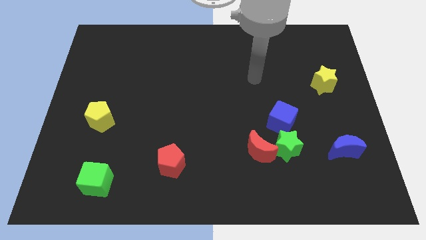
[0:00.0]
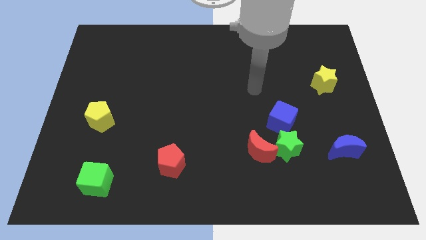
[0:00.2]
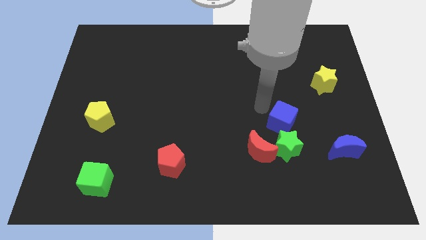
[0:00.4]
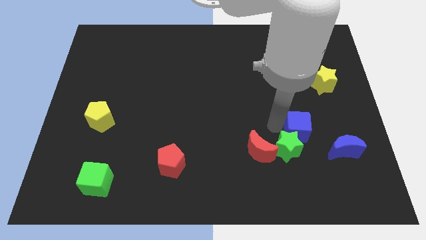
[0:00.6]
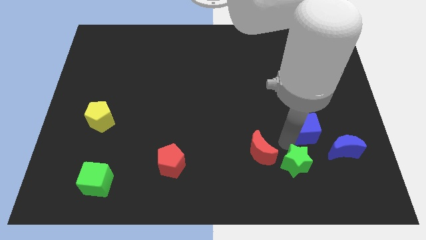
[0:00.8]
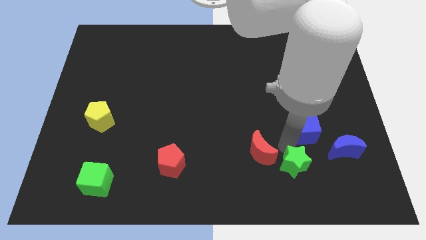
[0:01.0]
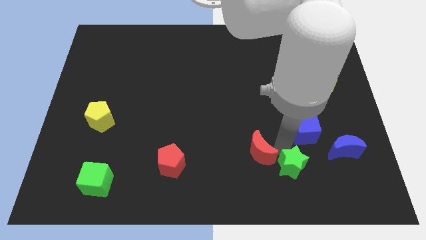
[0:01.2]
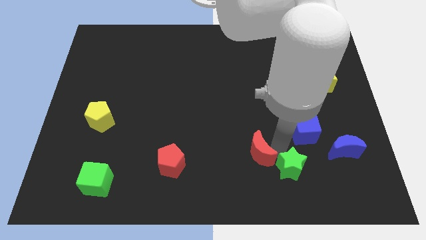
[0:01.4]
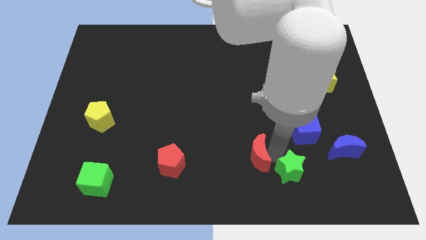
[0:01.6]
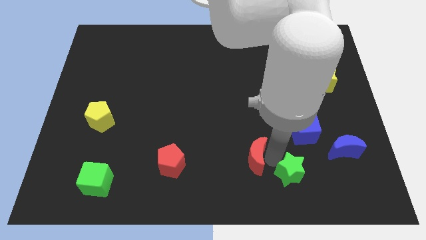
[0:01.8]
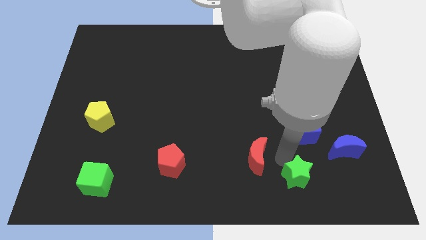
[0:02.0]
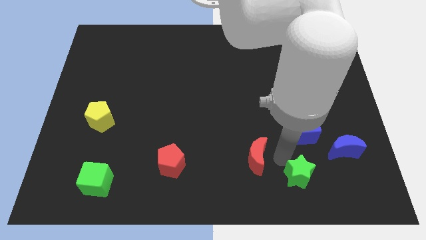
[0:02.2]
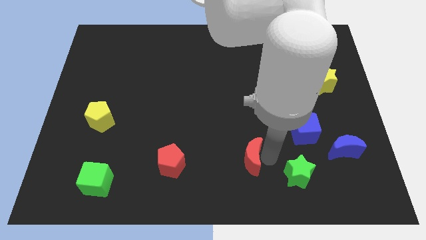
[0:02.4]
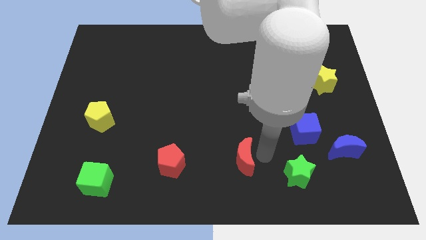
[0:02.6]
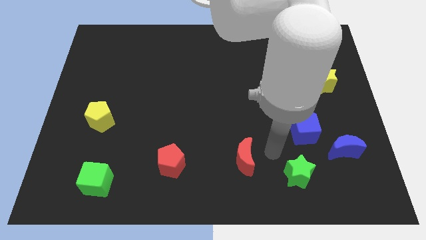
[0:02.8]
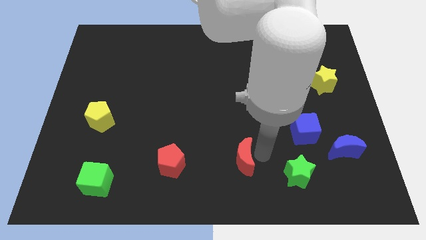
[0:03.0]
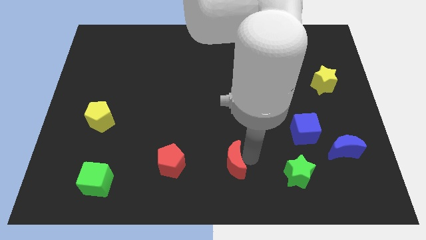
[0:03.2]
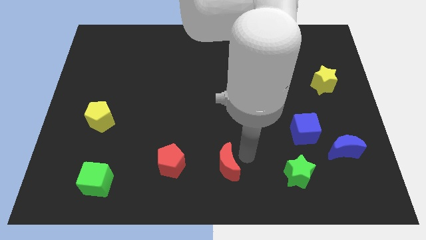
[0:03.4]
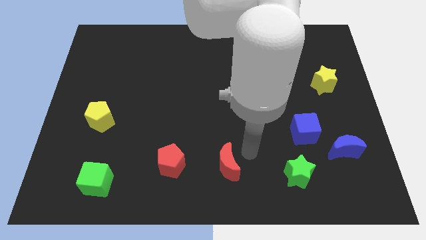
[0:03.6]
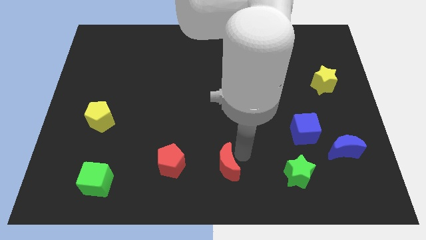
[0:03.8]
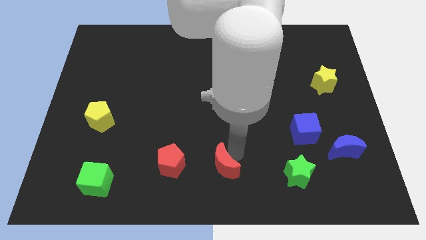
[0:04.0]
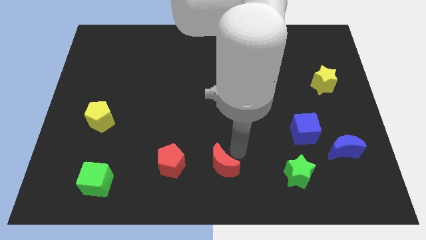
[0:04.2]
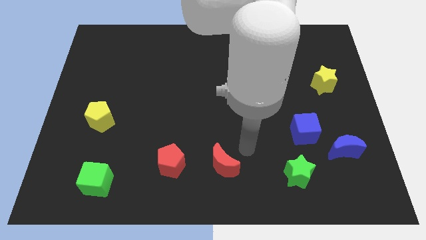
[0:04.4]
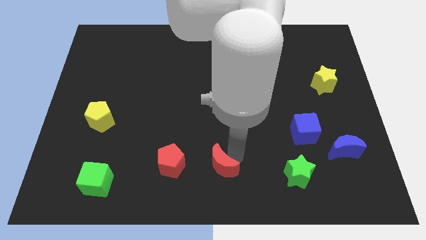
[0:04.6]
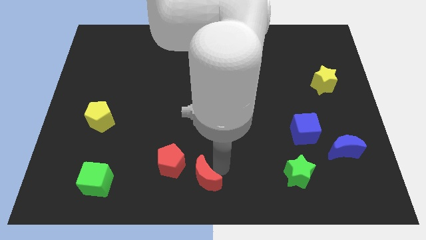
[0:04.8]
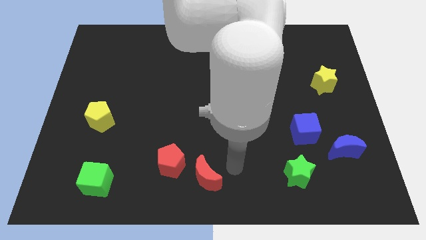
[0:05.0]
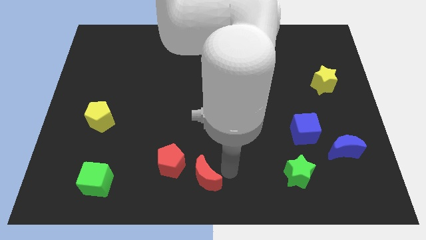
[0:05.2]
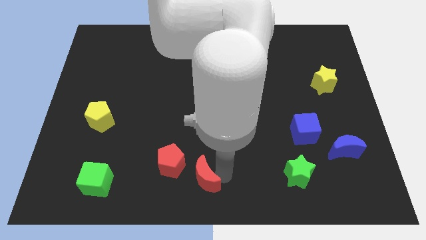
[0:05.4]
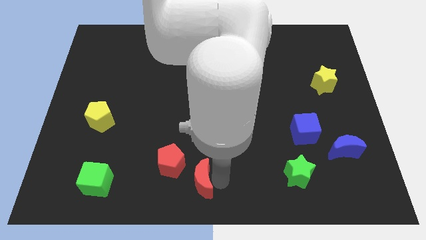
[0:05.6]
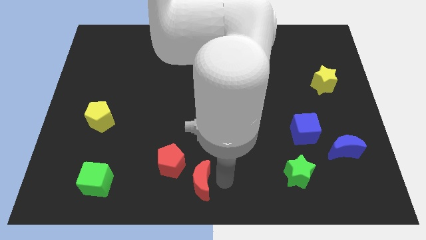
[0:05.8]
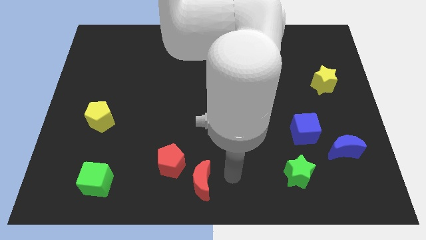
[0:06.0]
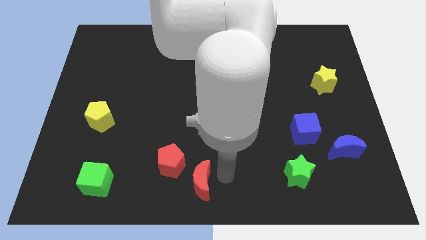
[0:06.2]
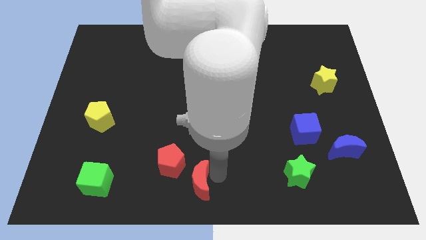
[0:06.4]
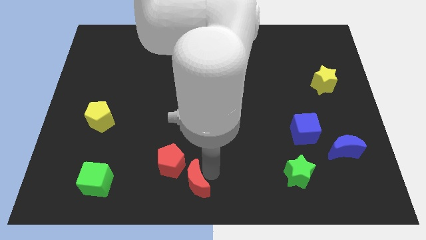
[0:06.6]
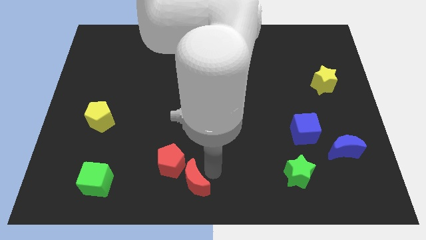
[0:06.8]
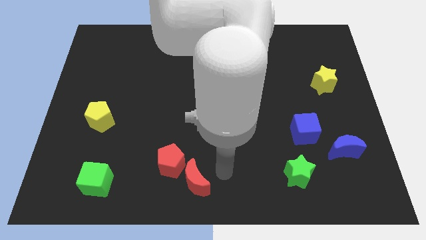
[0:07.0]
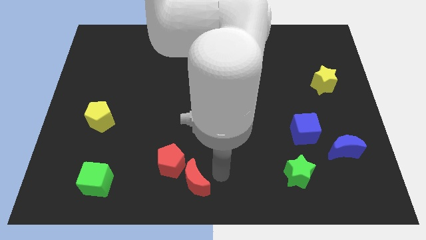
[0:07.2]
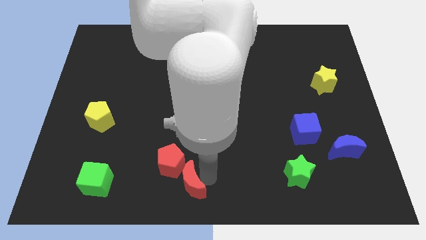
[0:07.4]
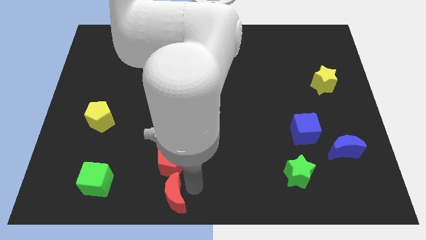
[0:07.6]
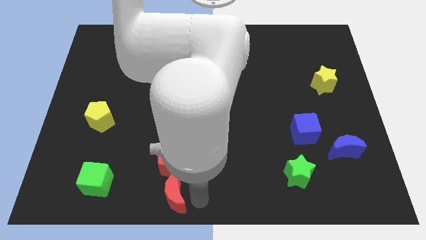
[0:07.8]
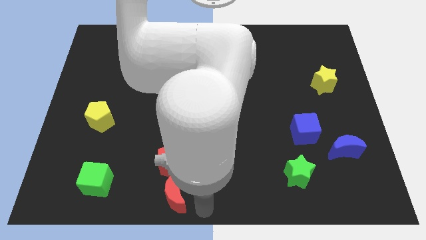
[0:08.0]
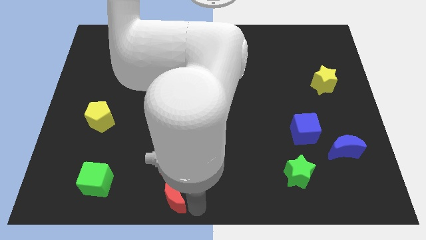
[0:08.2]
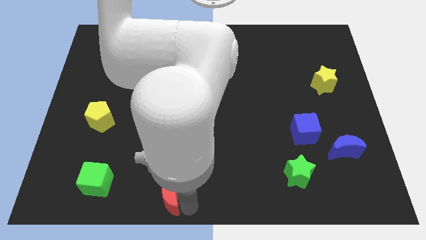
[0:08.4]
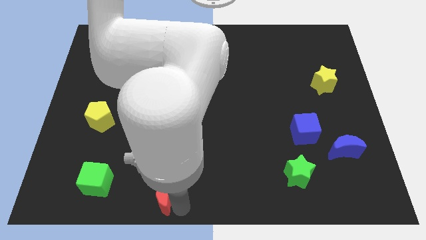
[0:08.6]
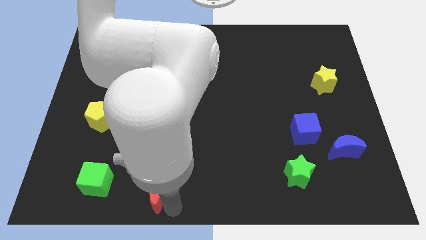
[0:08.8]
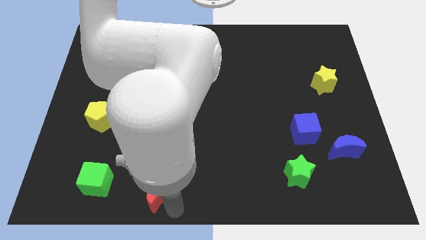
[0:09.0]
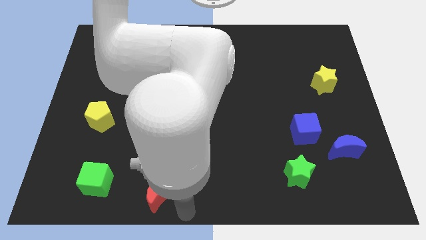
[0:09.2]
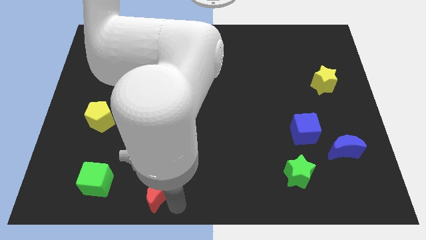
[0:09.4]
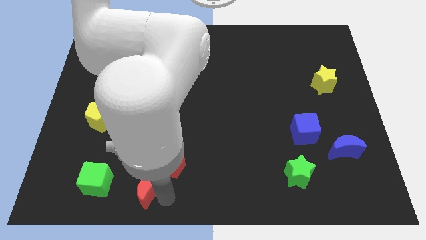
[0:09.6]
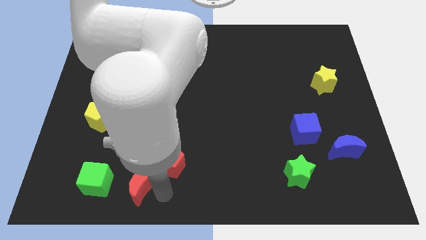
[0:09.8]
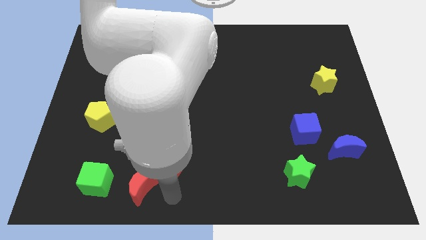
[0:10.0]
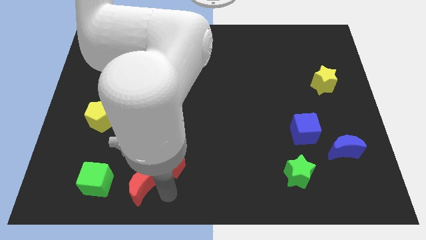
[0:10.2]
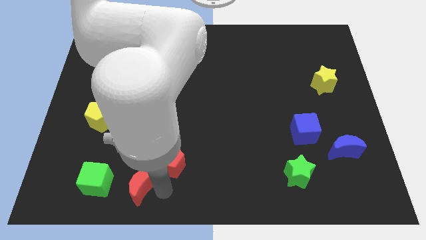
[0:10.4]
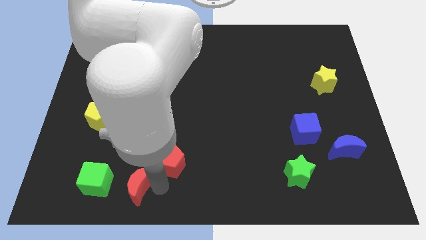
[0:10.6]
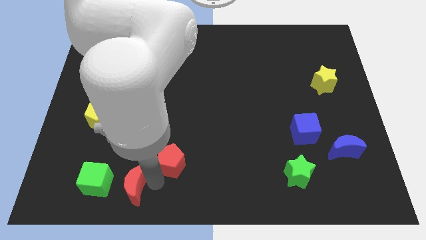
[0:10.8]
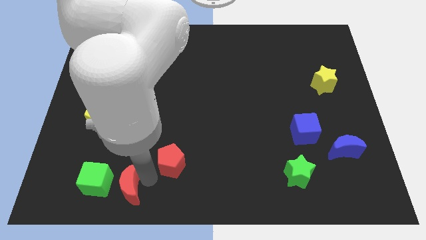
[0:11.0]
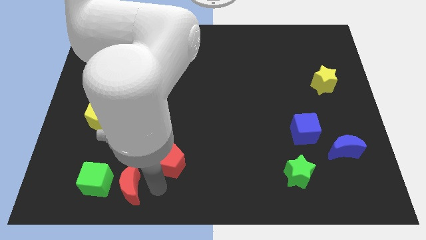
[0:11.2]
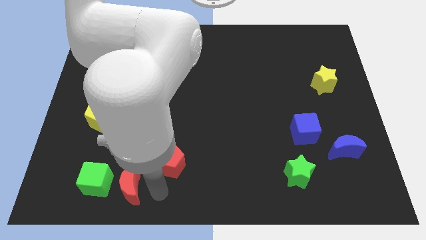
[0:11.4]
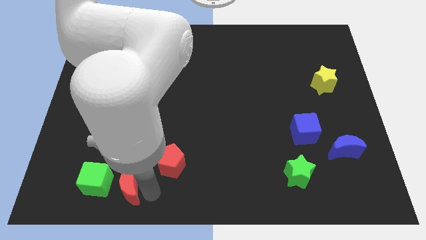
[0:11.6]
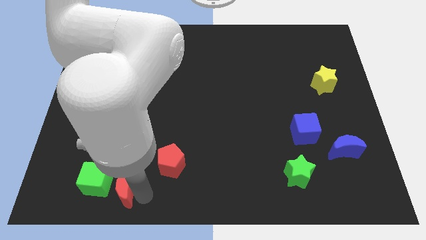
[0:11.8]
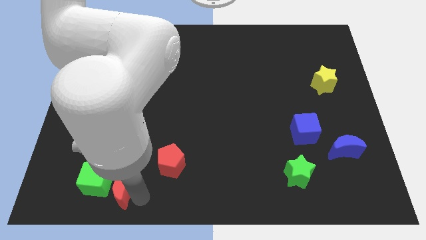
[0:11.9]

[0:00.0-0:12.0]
slide the red moon to the green cube

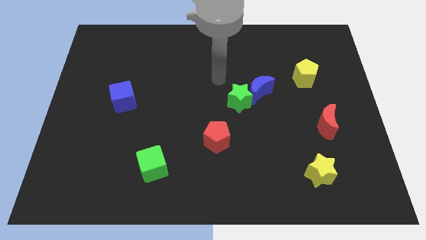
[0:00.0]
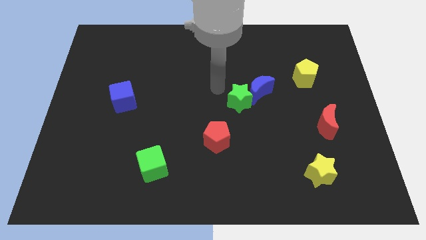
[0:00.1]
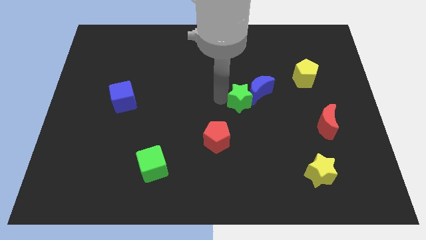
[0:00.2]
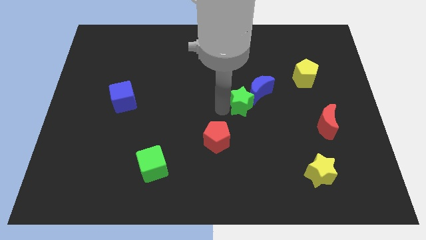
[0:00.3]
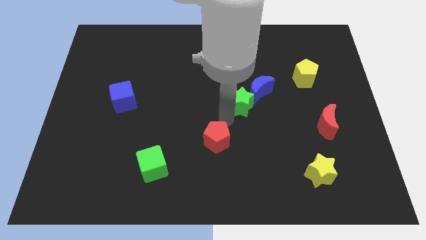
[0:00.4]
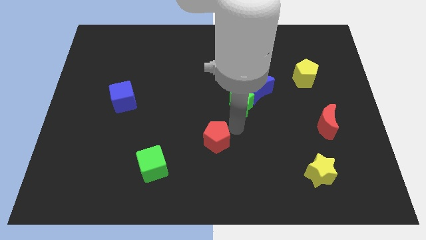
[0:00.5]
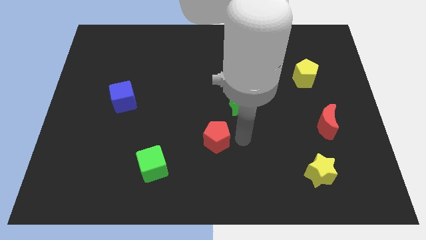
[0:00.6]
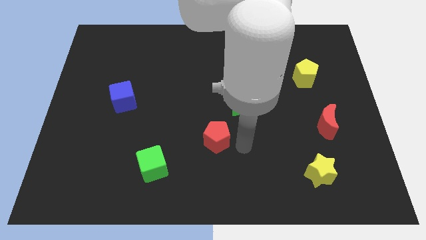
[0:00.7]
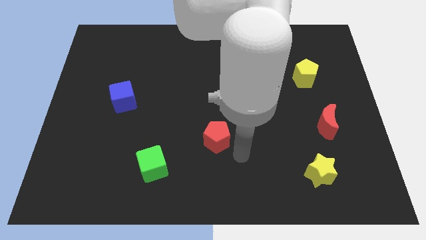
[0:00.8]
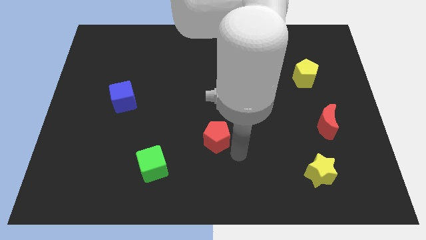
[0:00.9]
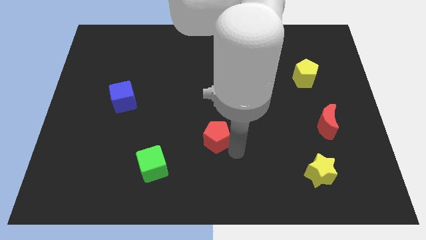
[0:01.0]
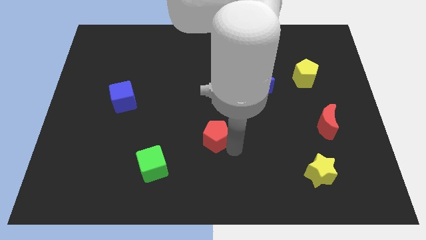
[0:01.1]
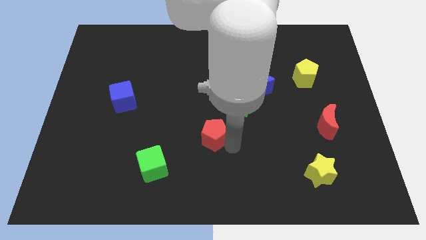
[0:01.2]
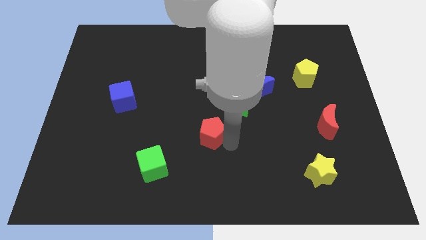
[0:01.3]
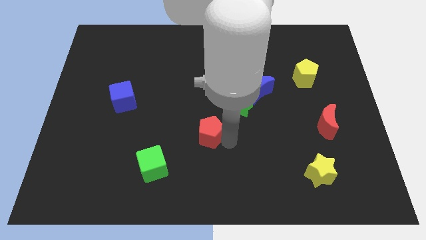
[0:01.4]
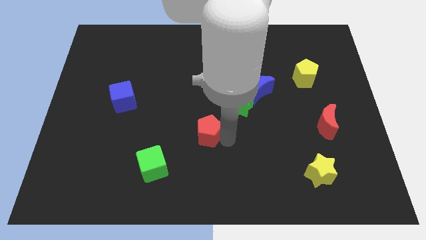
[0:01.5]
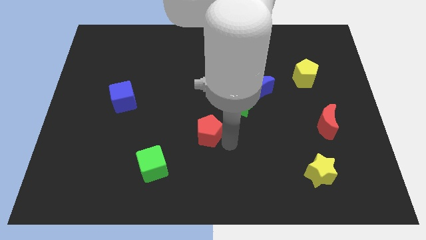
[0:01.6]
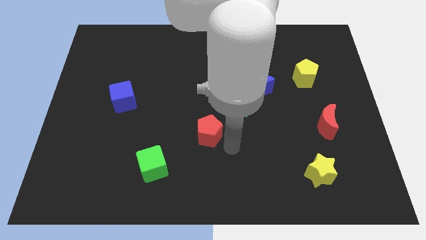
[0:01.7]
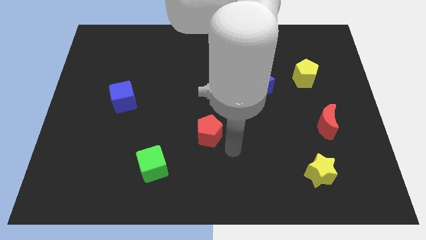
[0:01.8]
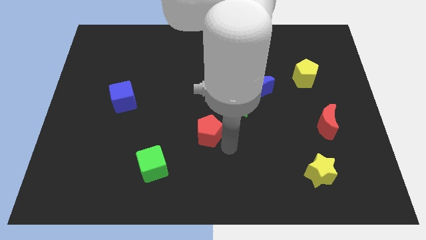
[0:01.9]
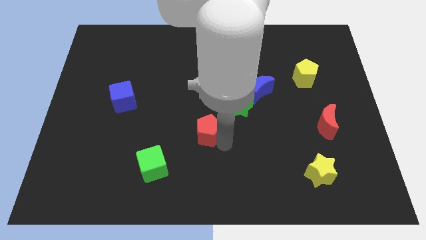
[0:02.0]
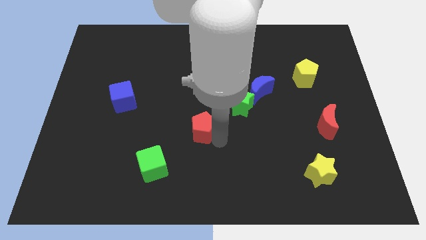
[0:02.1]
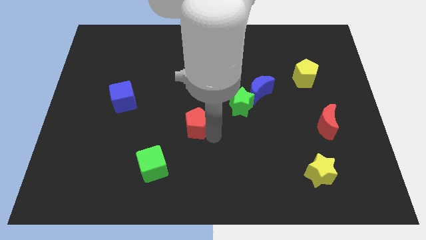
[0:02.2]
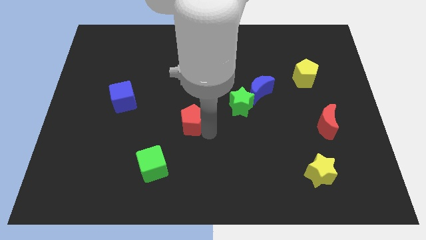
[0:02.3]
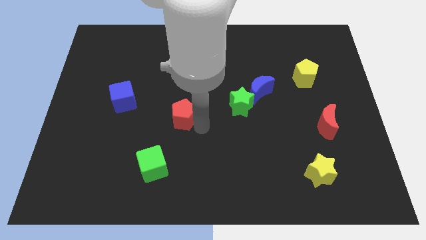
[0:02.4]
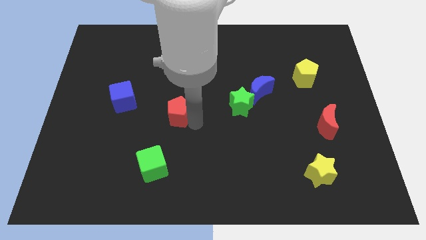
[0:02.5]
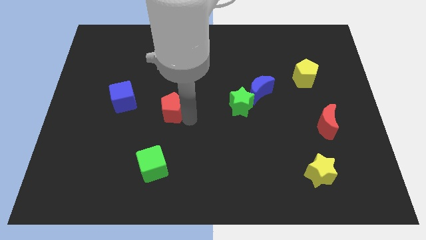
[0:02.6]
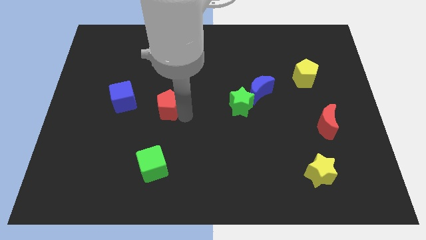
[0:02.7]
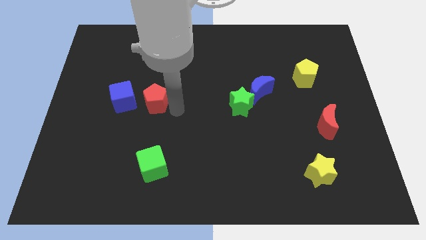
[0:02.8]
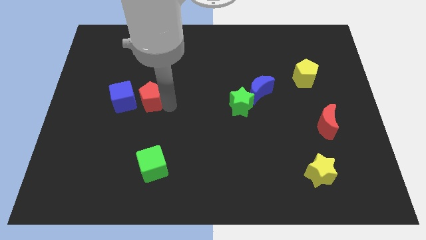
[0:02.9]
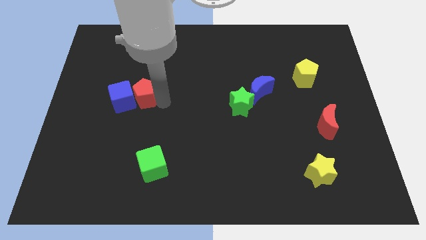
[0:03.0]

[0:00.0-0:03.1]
push the red pentagon towards the blue cube
